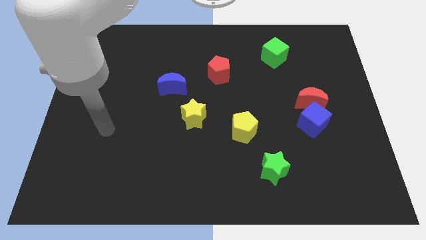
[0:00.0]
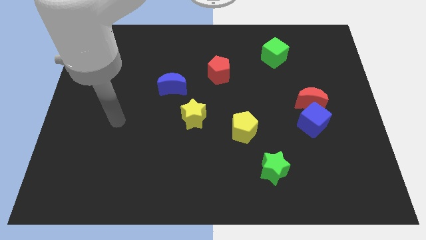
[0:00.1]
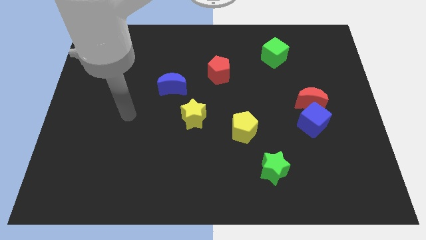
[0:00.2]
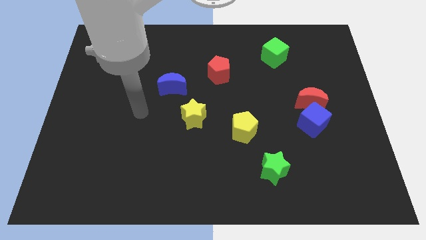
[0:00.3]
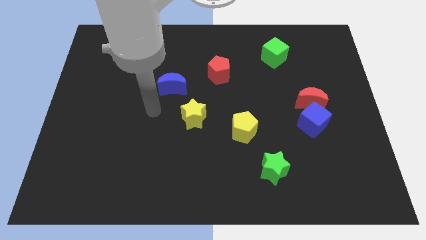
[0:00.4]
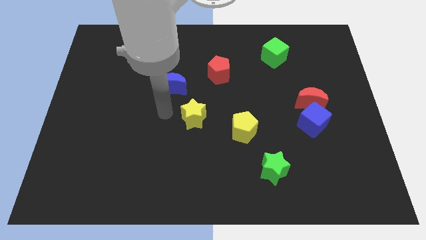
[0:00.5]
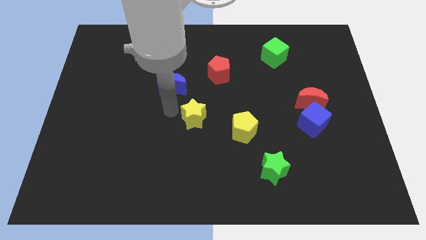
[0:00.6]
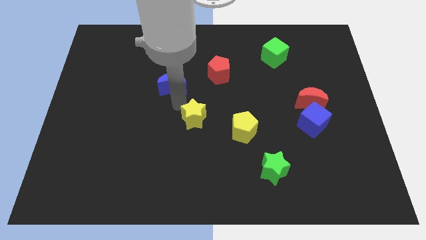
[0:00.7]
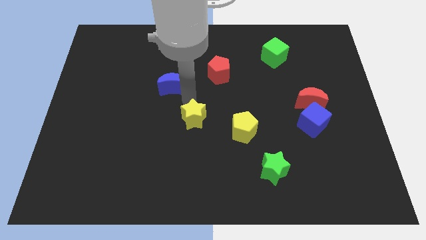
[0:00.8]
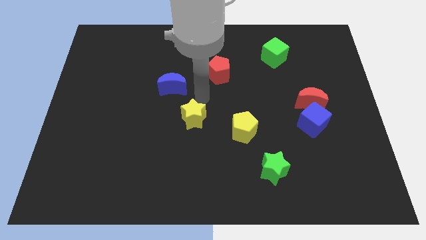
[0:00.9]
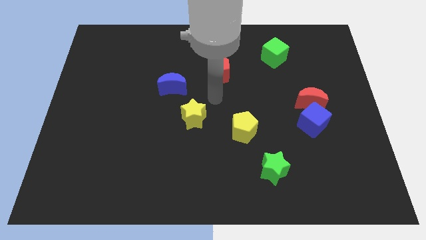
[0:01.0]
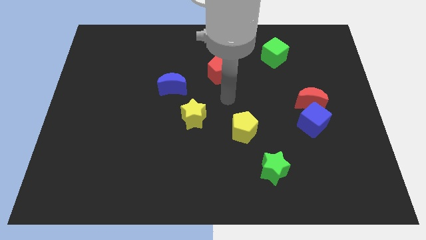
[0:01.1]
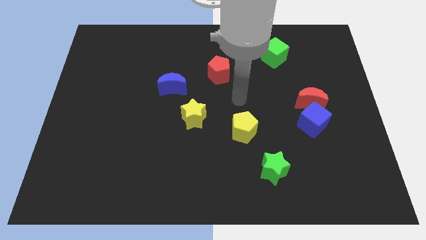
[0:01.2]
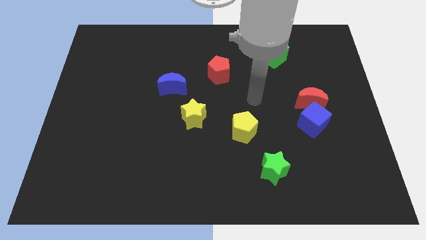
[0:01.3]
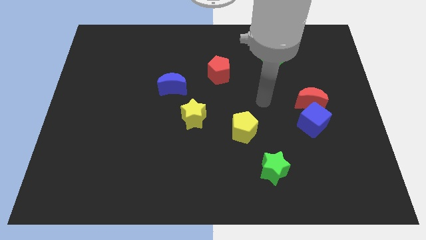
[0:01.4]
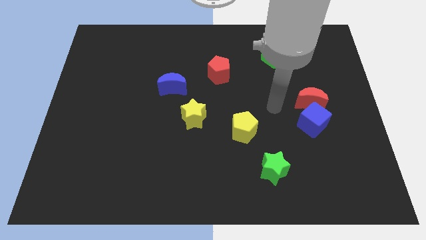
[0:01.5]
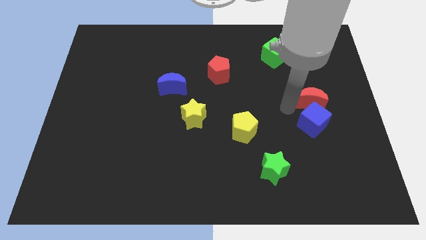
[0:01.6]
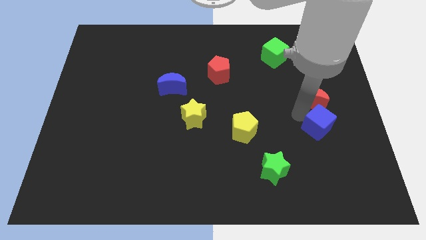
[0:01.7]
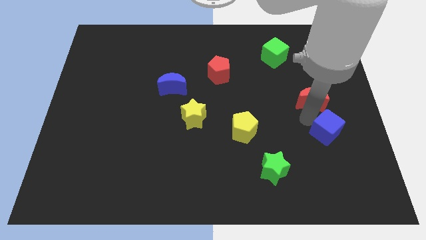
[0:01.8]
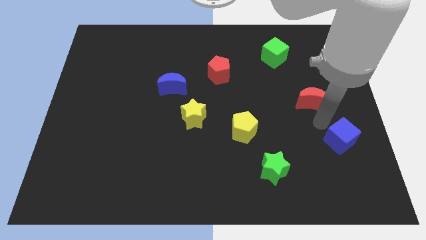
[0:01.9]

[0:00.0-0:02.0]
pull the red moon apart from the blue cube

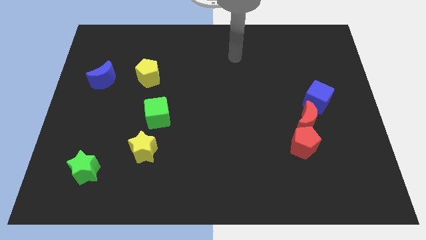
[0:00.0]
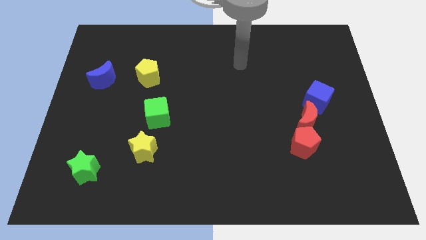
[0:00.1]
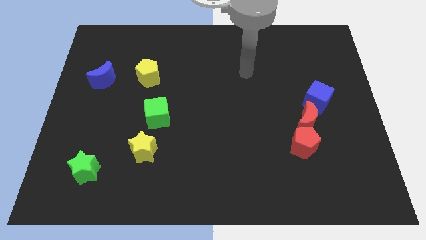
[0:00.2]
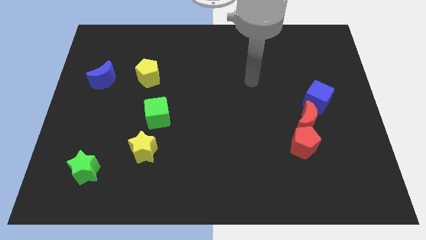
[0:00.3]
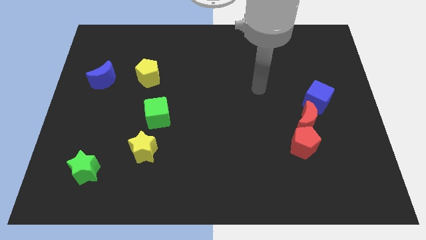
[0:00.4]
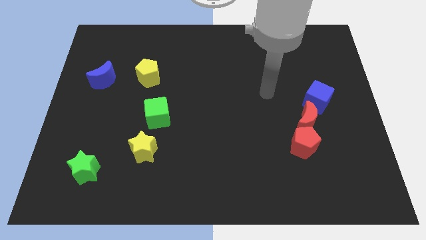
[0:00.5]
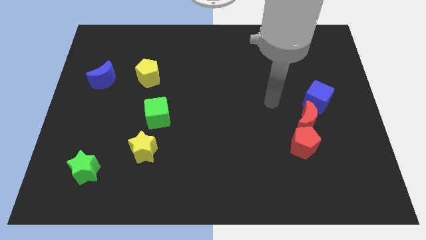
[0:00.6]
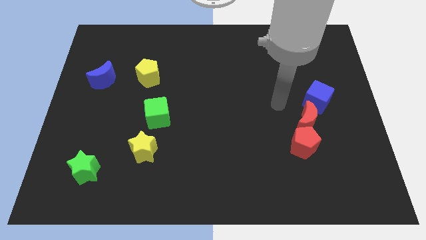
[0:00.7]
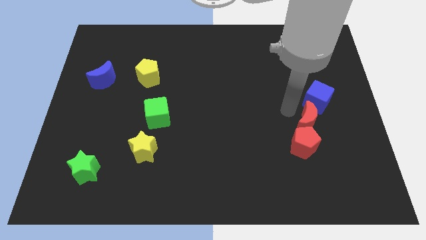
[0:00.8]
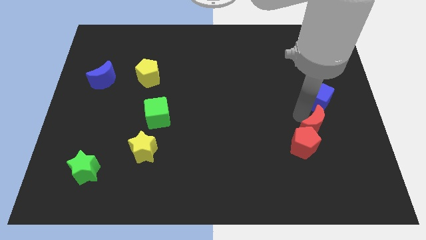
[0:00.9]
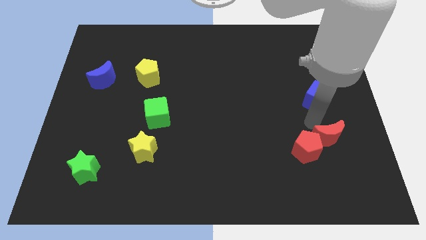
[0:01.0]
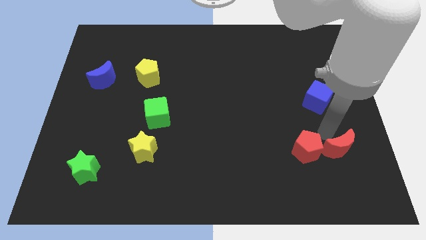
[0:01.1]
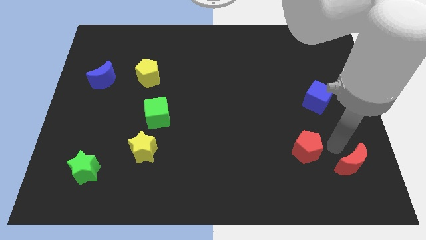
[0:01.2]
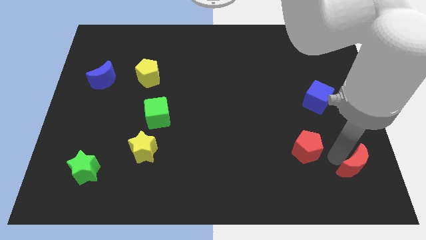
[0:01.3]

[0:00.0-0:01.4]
separate the red pentagon from the red moon

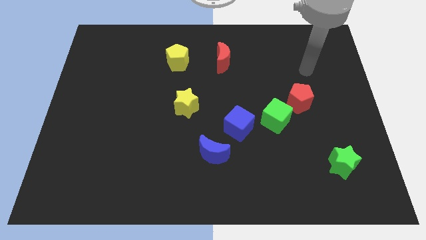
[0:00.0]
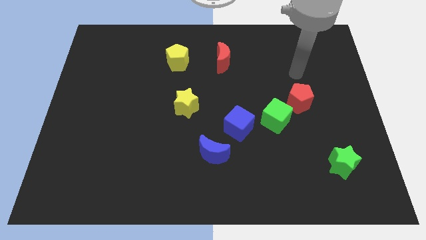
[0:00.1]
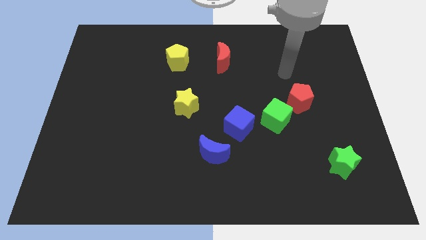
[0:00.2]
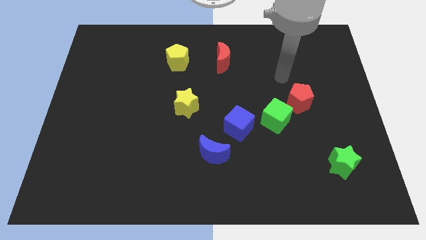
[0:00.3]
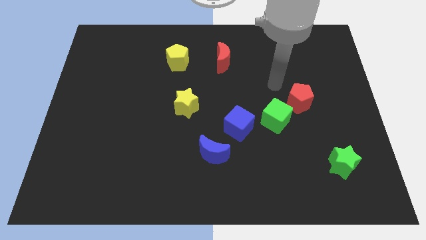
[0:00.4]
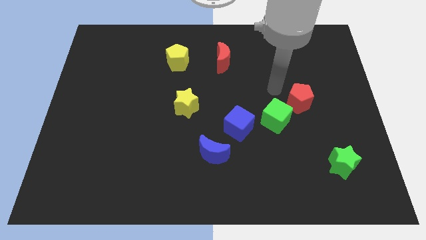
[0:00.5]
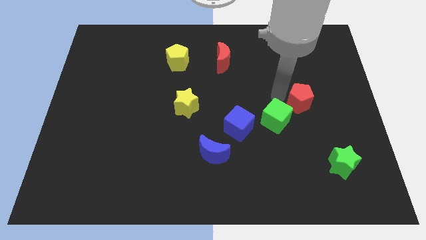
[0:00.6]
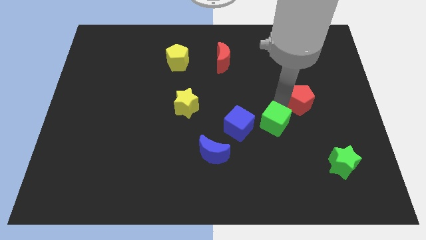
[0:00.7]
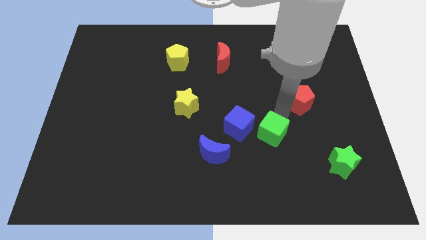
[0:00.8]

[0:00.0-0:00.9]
pull the red pentagon apart from the green cube

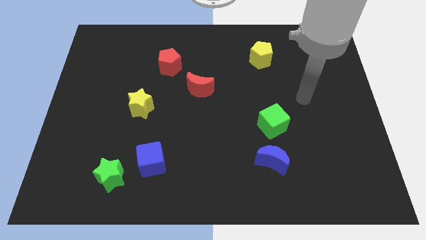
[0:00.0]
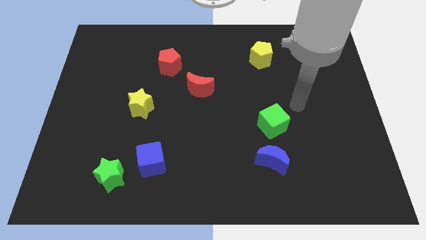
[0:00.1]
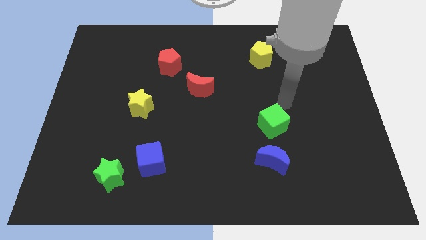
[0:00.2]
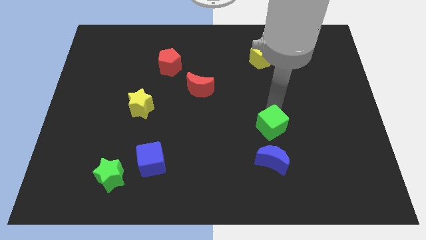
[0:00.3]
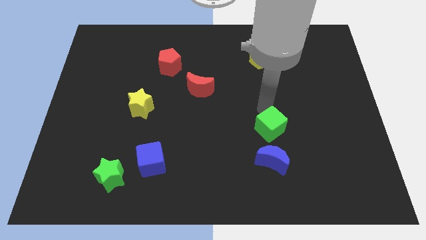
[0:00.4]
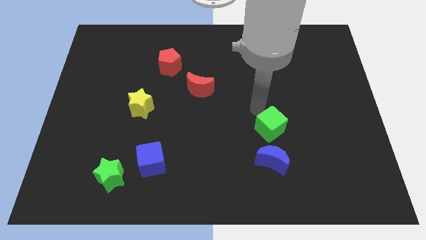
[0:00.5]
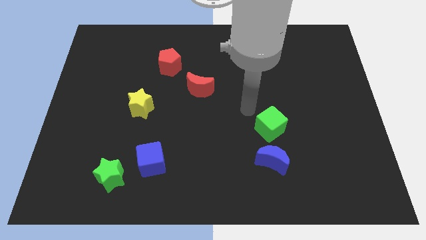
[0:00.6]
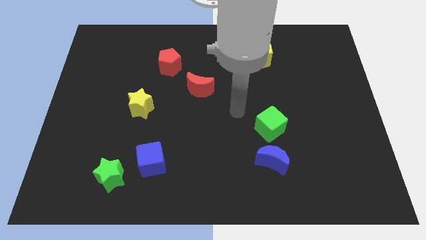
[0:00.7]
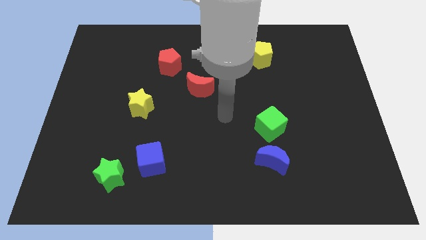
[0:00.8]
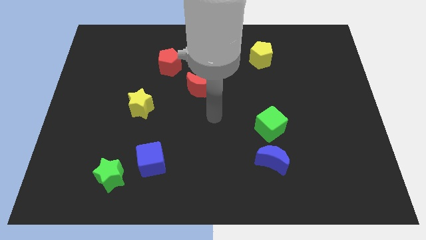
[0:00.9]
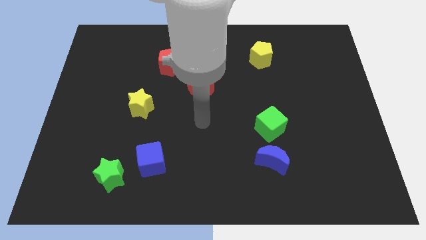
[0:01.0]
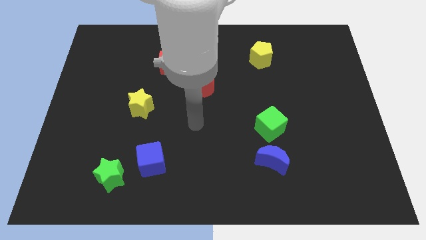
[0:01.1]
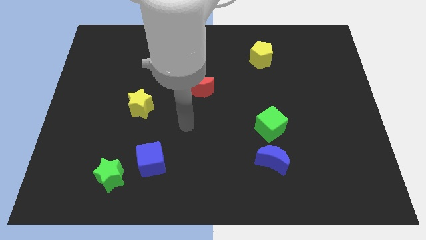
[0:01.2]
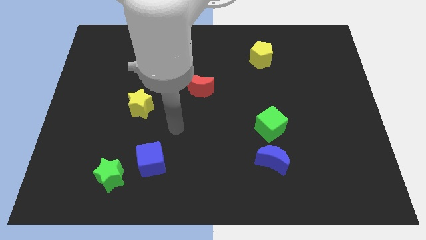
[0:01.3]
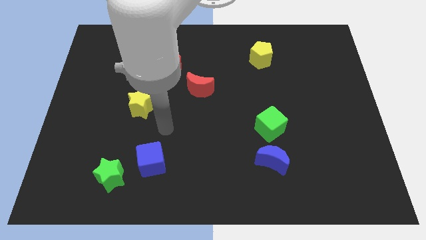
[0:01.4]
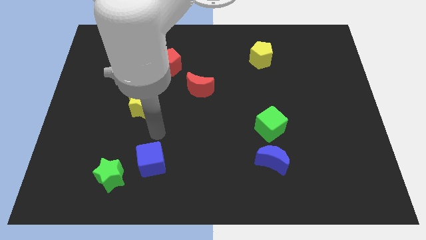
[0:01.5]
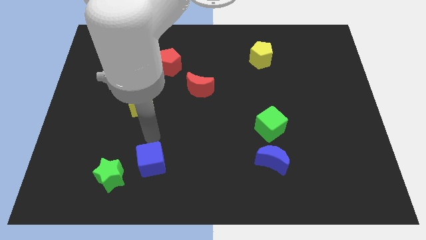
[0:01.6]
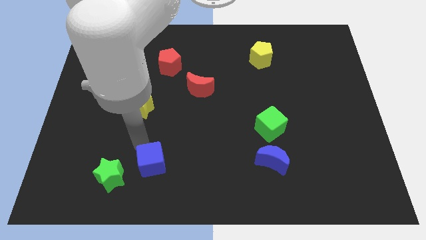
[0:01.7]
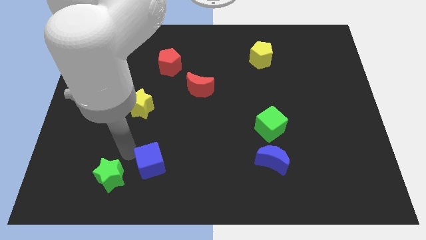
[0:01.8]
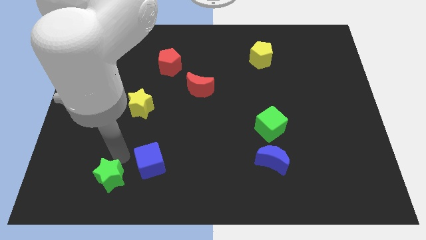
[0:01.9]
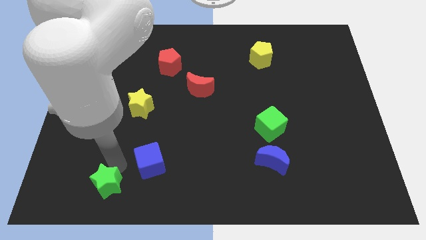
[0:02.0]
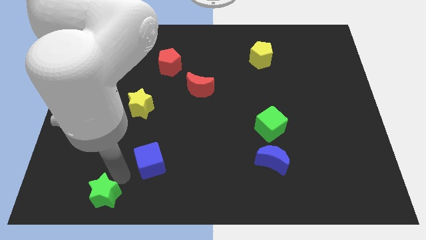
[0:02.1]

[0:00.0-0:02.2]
separate the blue cube from the green star

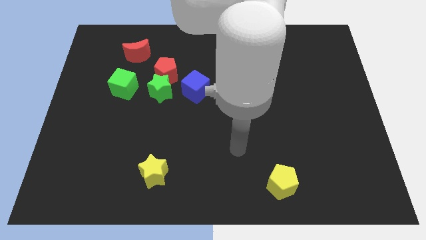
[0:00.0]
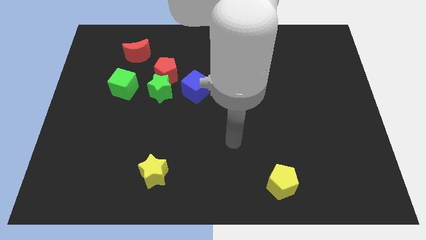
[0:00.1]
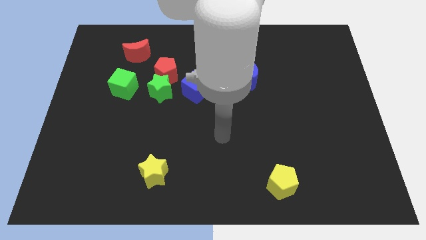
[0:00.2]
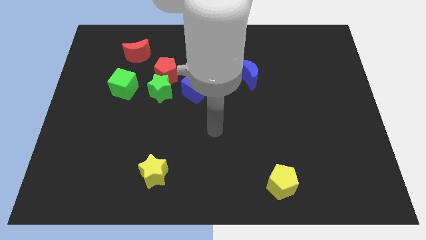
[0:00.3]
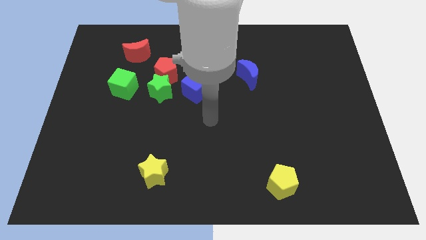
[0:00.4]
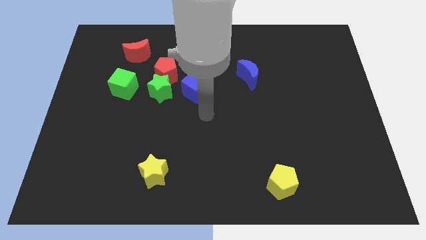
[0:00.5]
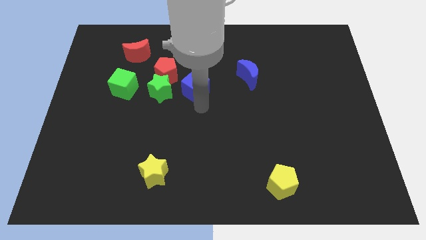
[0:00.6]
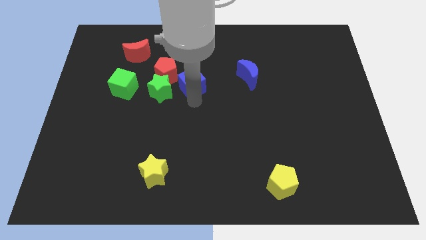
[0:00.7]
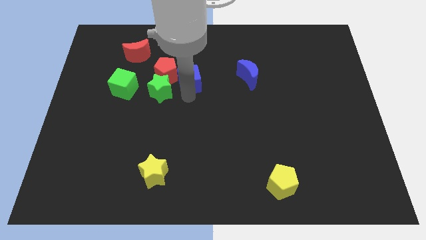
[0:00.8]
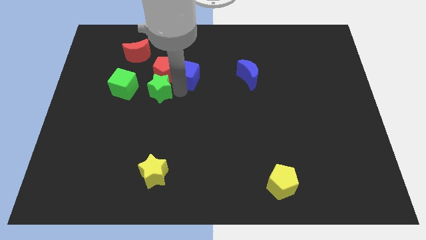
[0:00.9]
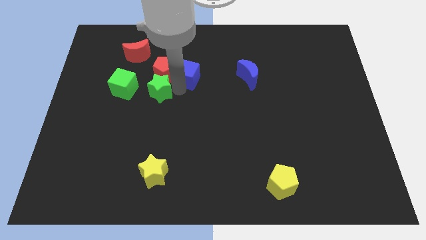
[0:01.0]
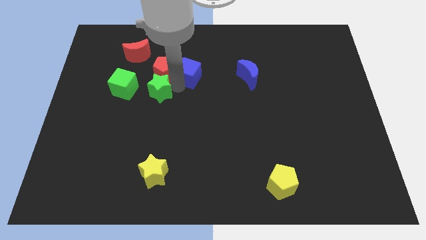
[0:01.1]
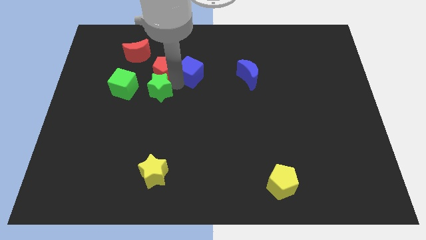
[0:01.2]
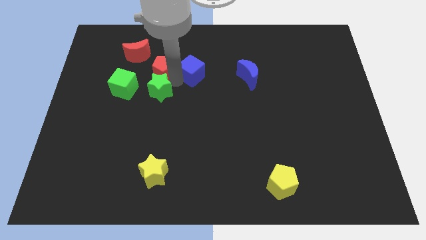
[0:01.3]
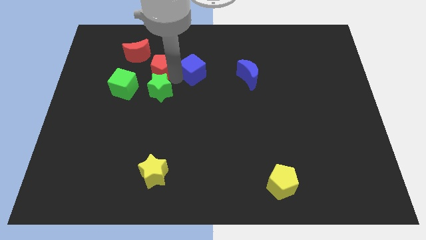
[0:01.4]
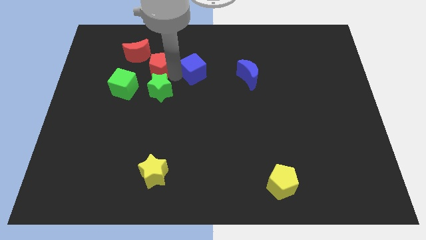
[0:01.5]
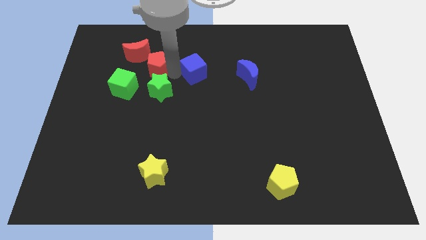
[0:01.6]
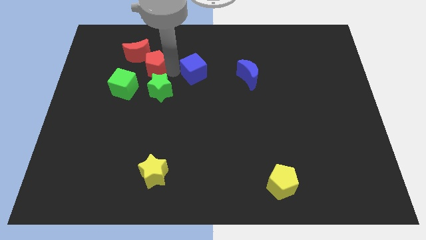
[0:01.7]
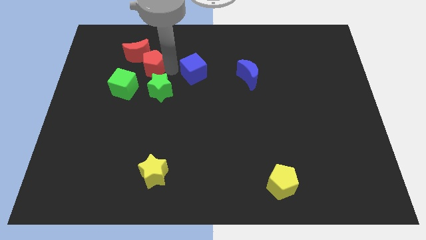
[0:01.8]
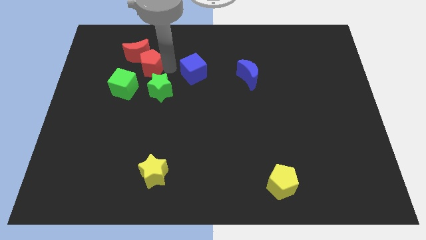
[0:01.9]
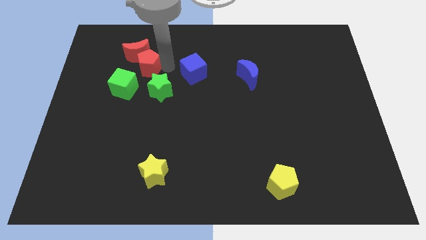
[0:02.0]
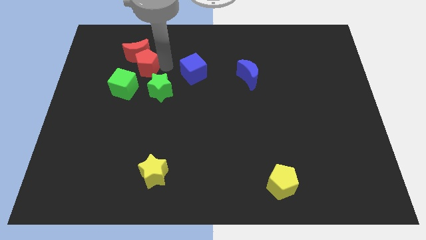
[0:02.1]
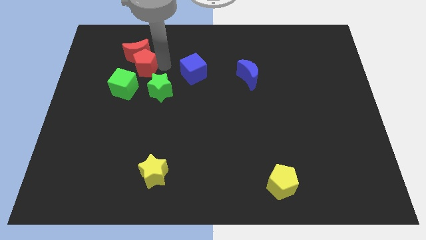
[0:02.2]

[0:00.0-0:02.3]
separate the red pentagon from the green star and blue cube

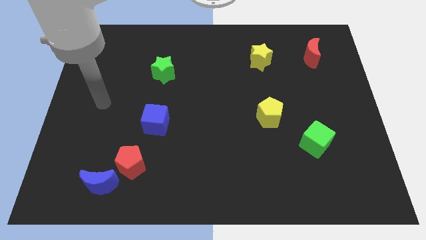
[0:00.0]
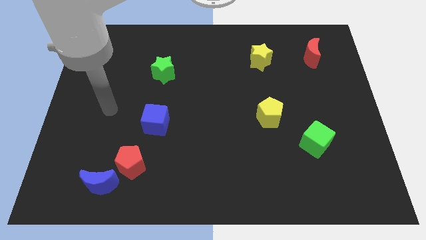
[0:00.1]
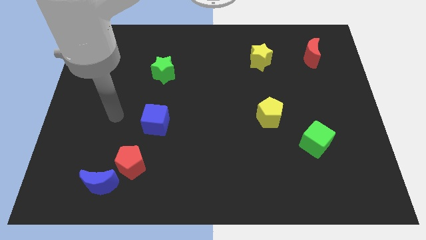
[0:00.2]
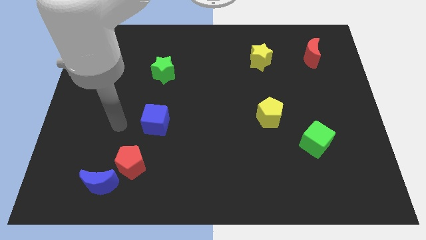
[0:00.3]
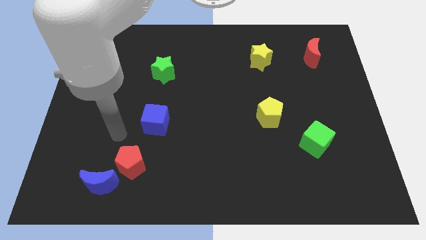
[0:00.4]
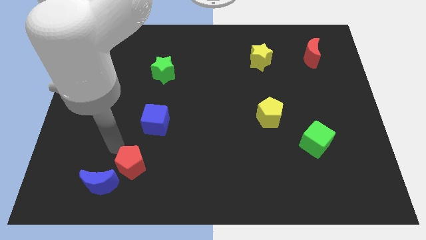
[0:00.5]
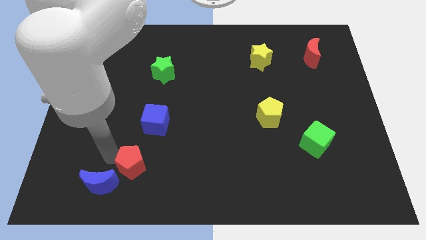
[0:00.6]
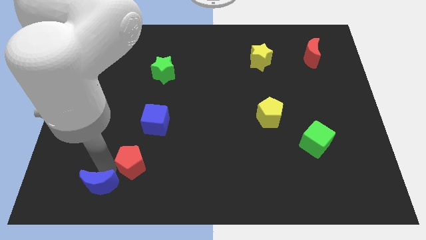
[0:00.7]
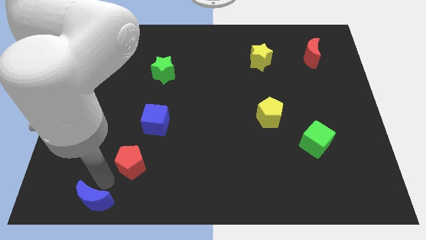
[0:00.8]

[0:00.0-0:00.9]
pull the red pentagon apart from the blue moon
